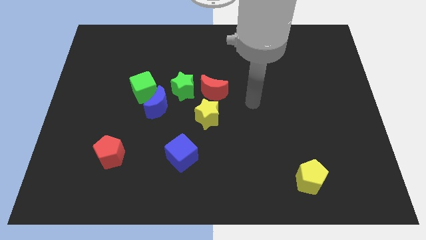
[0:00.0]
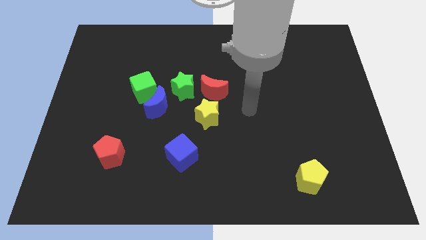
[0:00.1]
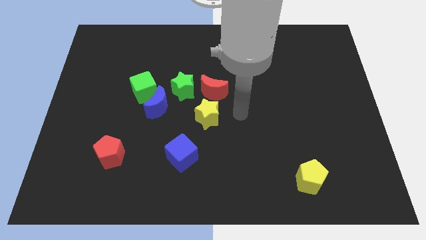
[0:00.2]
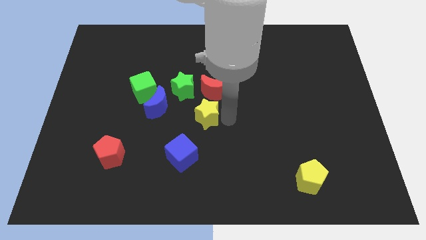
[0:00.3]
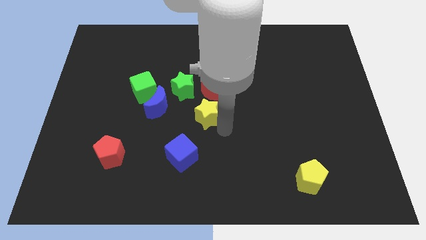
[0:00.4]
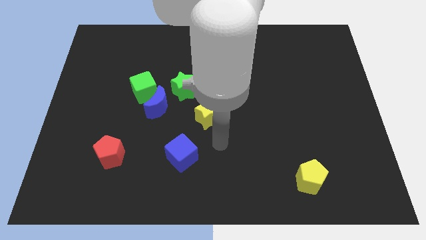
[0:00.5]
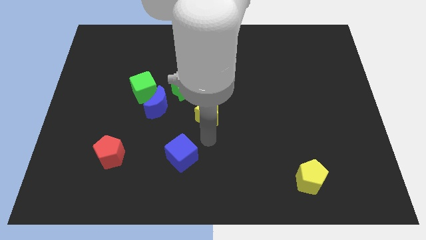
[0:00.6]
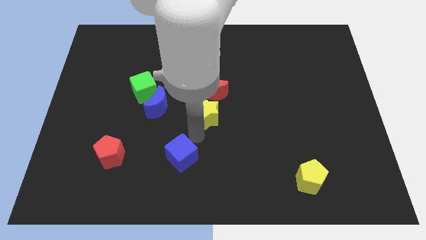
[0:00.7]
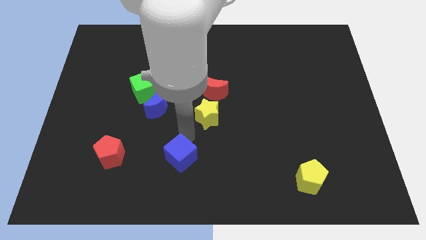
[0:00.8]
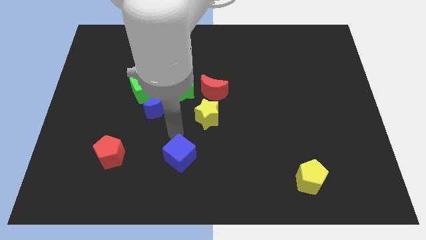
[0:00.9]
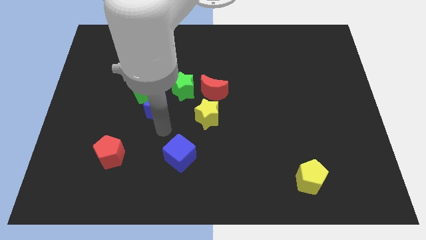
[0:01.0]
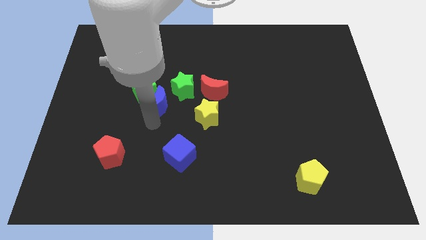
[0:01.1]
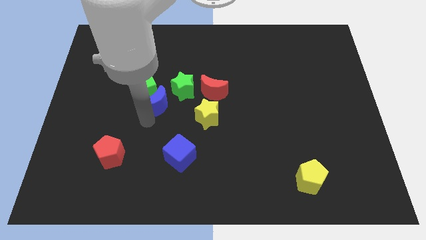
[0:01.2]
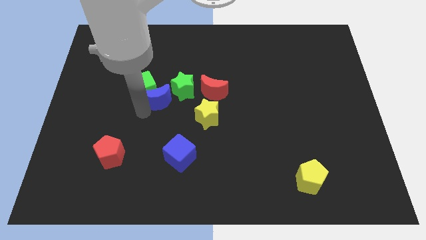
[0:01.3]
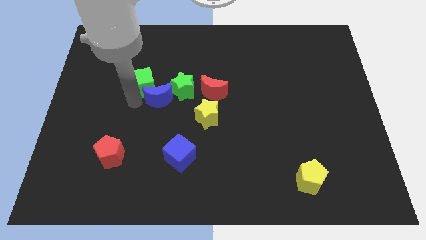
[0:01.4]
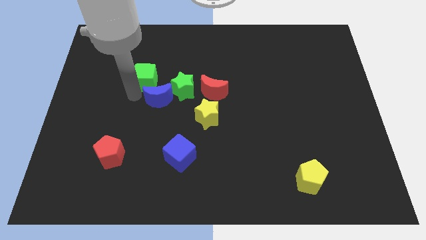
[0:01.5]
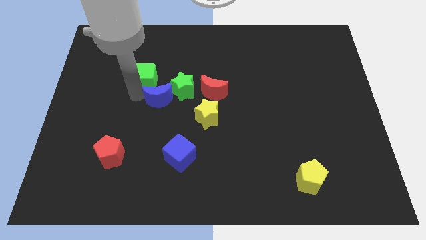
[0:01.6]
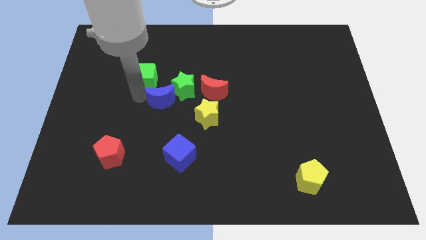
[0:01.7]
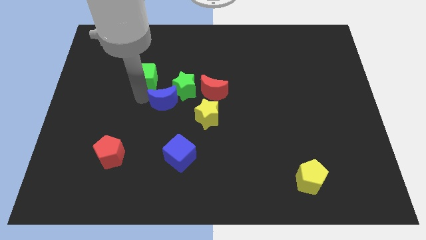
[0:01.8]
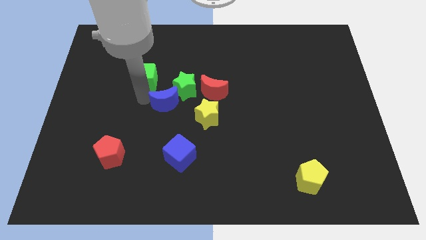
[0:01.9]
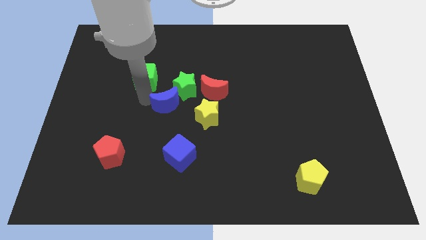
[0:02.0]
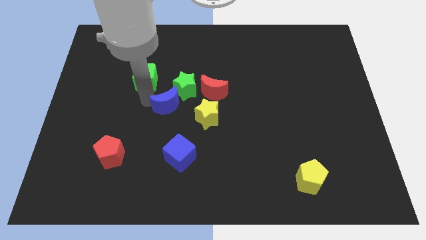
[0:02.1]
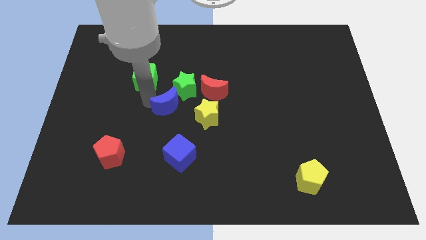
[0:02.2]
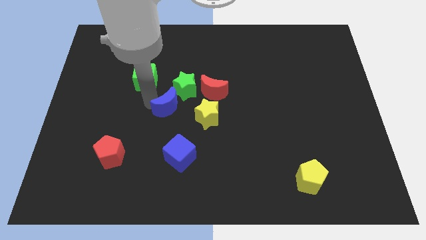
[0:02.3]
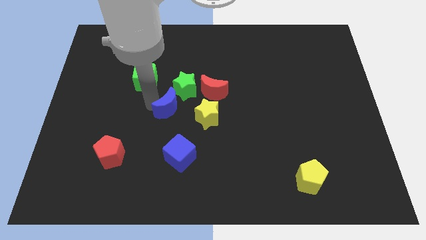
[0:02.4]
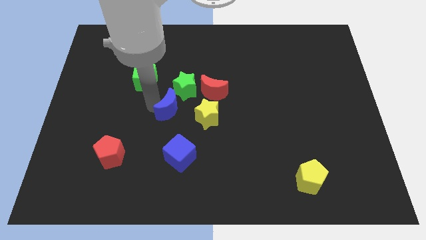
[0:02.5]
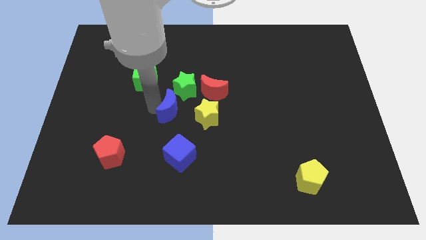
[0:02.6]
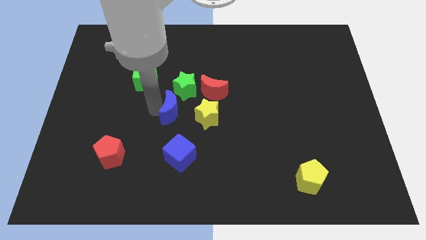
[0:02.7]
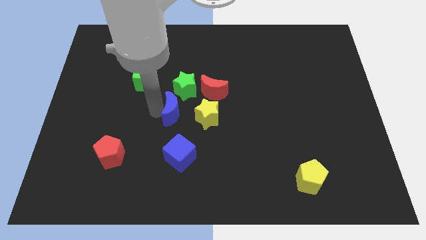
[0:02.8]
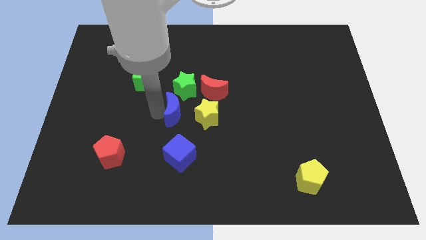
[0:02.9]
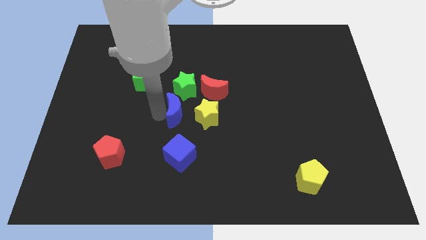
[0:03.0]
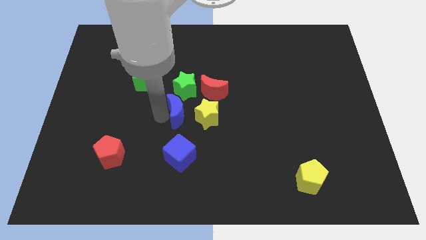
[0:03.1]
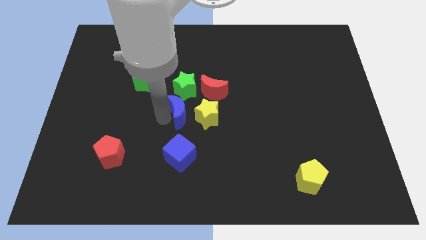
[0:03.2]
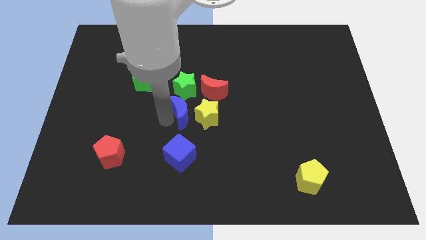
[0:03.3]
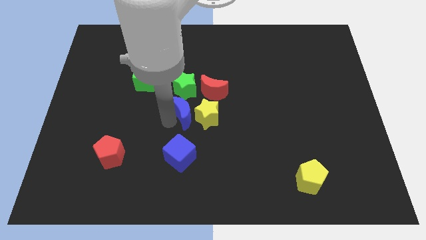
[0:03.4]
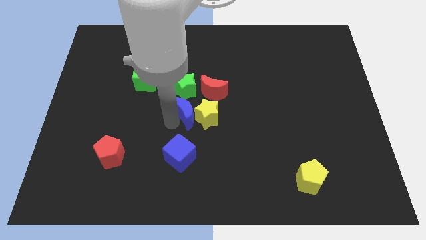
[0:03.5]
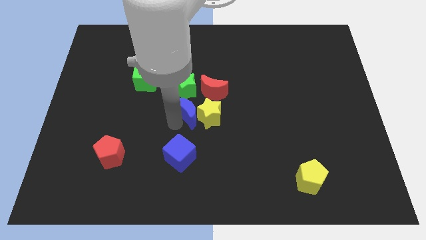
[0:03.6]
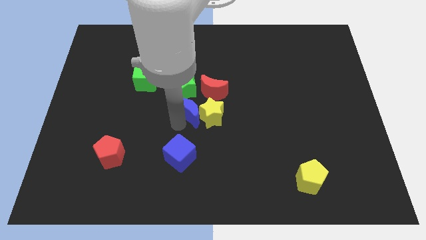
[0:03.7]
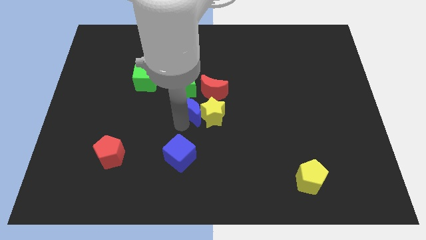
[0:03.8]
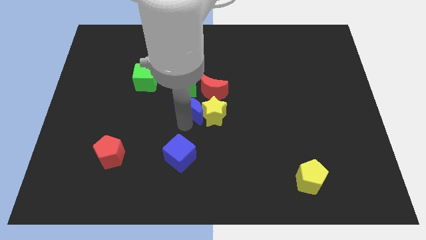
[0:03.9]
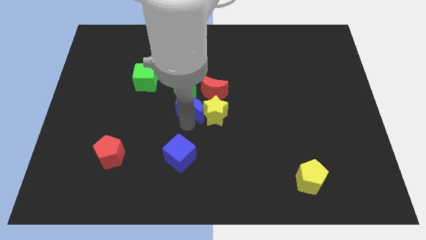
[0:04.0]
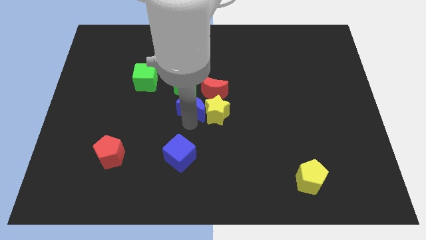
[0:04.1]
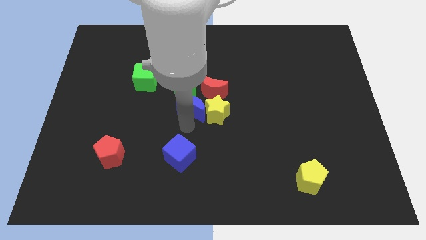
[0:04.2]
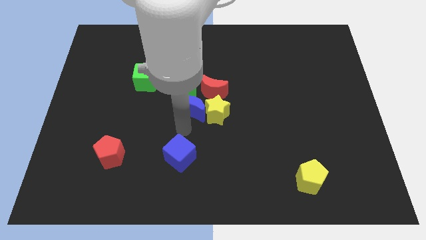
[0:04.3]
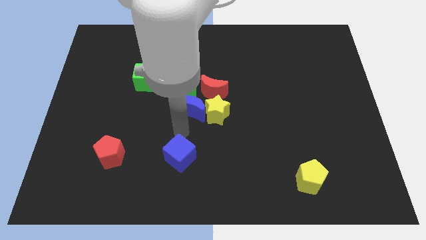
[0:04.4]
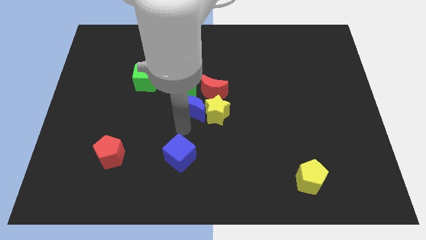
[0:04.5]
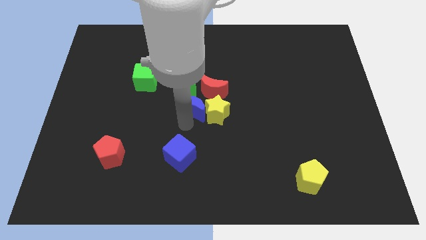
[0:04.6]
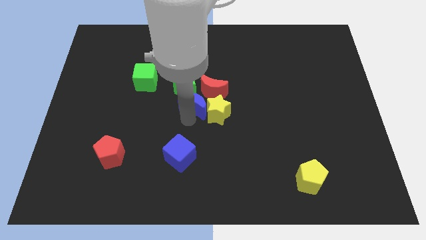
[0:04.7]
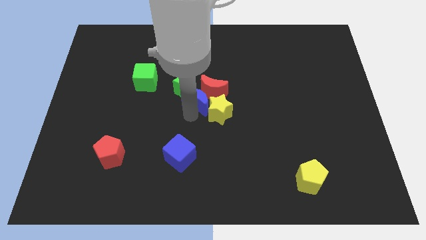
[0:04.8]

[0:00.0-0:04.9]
push the blue moon to the red moon

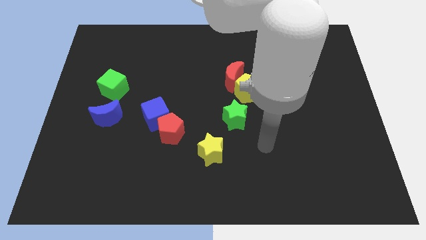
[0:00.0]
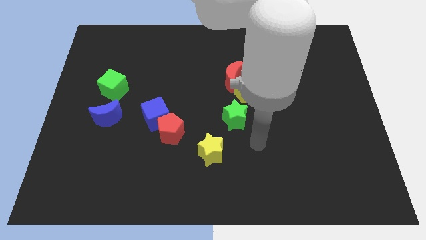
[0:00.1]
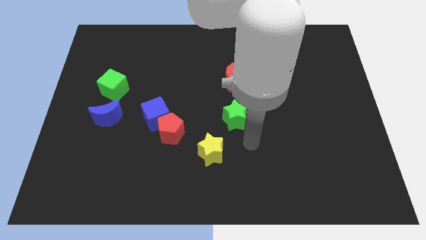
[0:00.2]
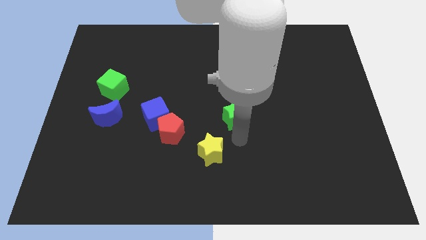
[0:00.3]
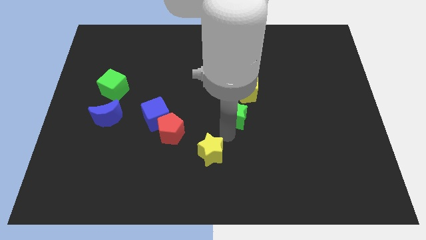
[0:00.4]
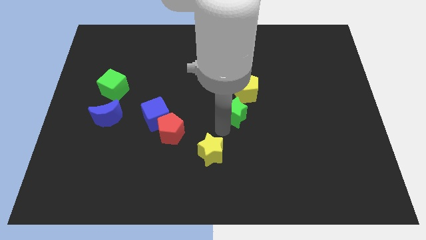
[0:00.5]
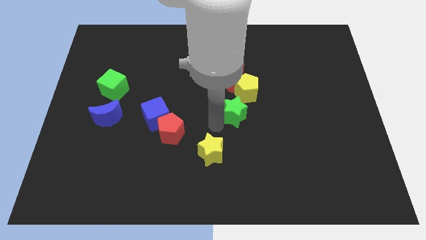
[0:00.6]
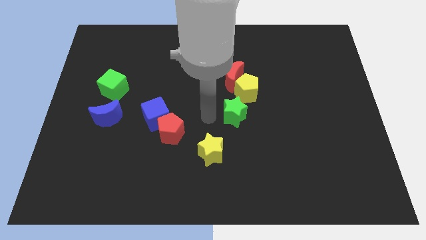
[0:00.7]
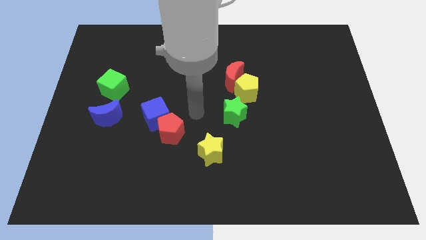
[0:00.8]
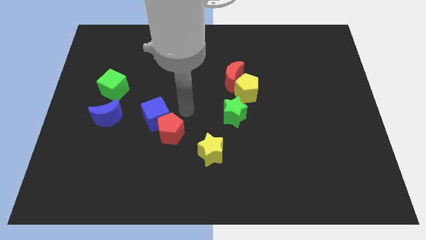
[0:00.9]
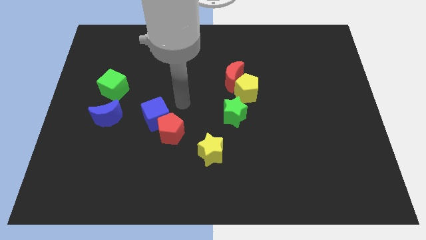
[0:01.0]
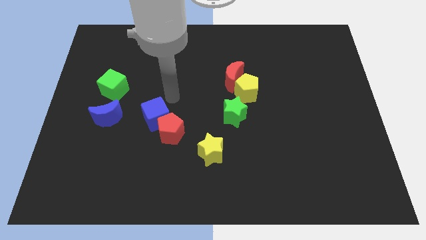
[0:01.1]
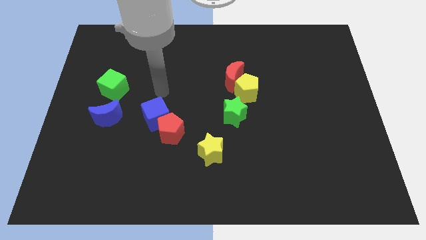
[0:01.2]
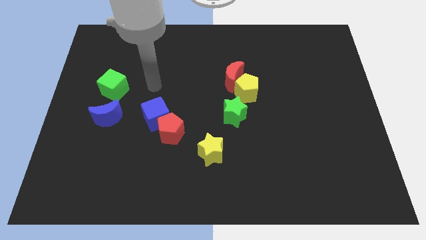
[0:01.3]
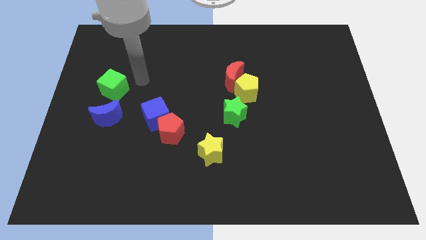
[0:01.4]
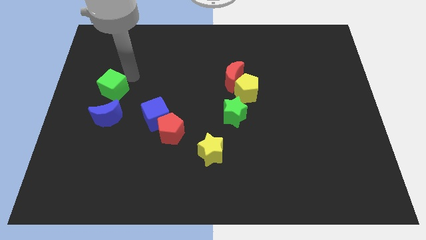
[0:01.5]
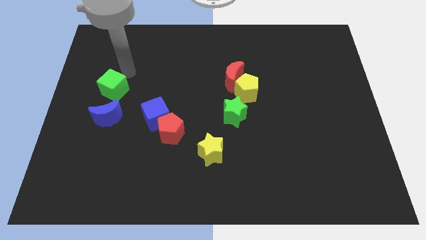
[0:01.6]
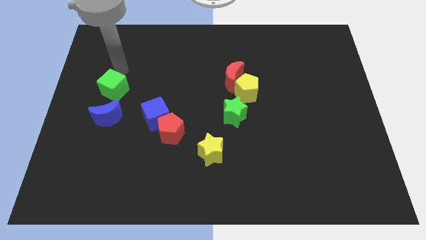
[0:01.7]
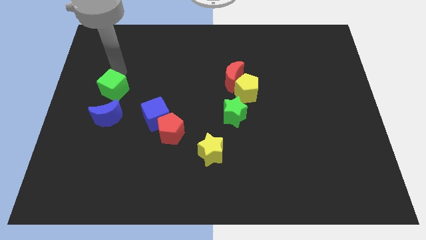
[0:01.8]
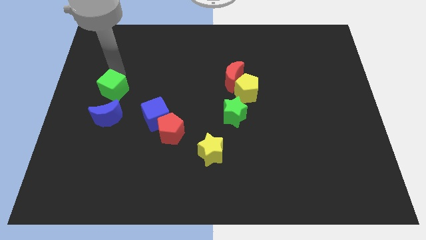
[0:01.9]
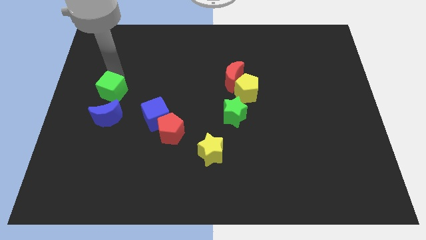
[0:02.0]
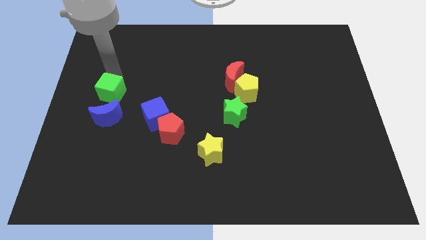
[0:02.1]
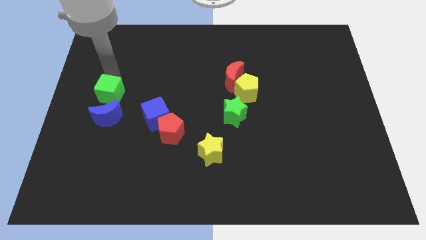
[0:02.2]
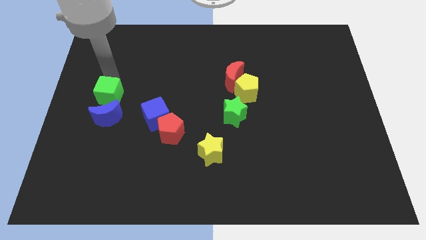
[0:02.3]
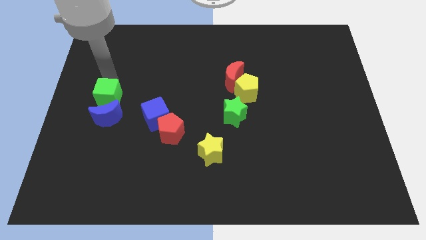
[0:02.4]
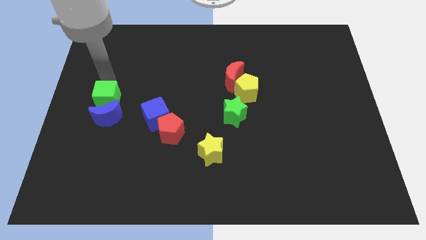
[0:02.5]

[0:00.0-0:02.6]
put the green cube close to the blue moon
